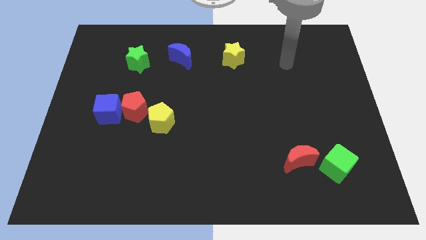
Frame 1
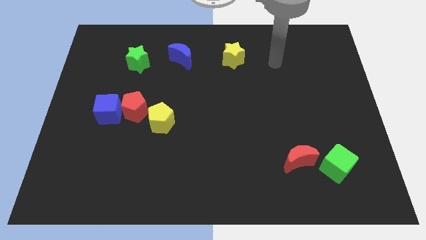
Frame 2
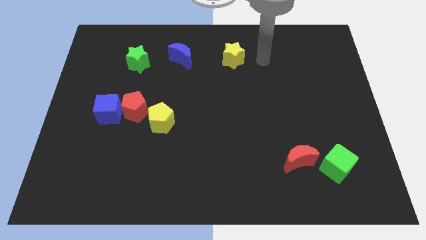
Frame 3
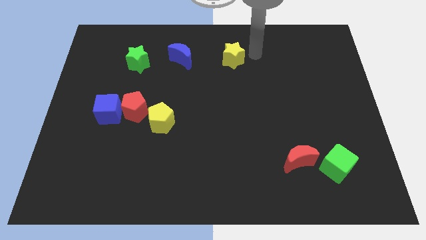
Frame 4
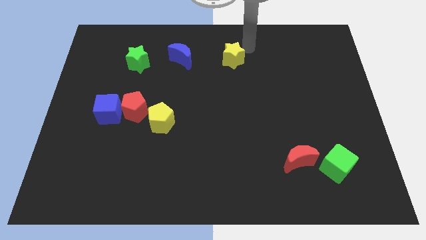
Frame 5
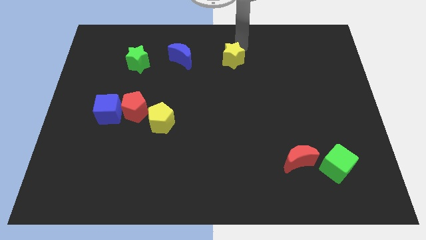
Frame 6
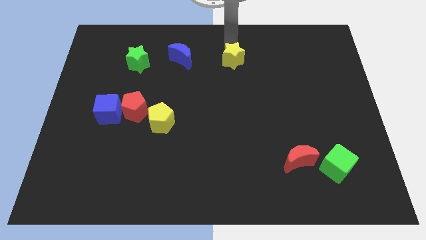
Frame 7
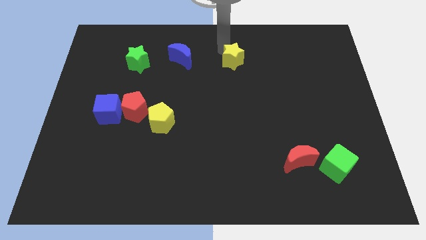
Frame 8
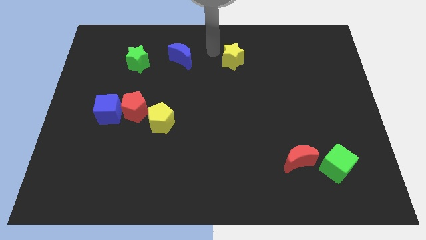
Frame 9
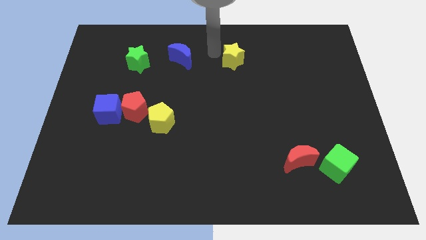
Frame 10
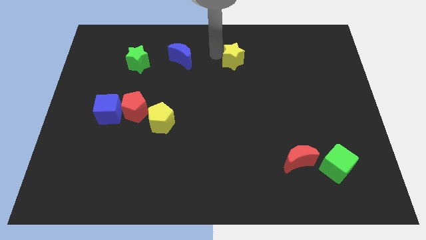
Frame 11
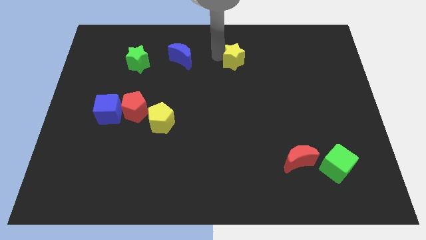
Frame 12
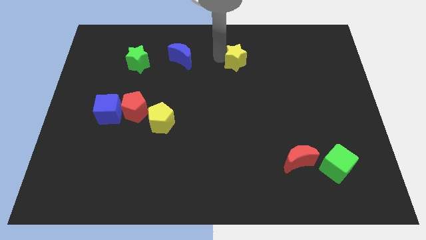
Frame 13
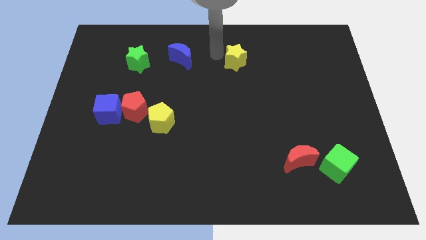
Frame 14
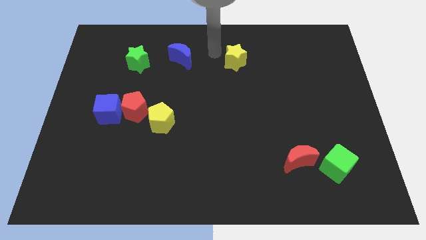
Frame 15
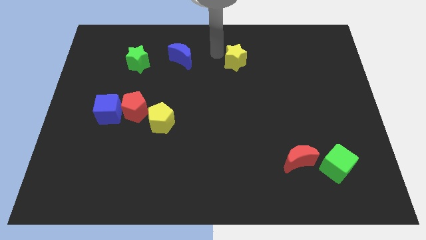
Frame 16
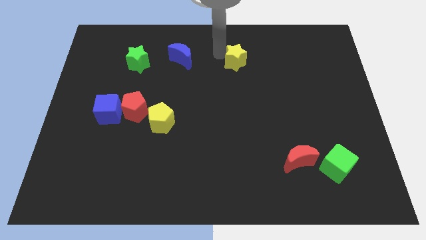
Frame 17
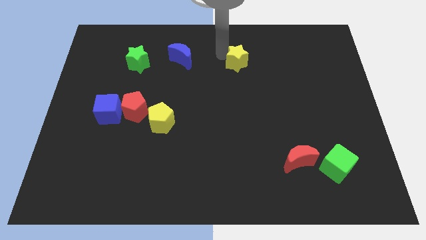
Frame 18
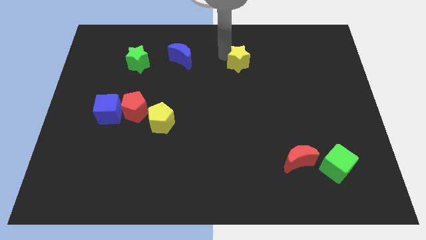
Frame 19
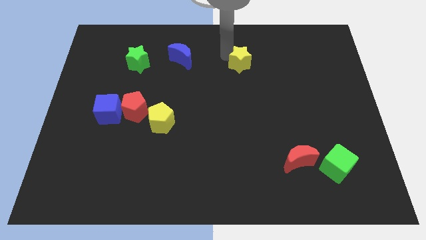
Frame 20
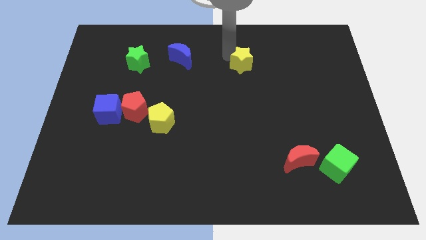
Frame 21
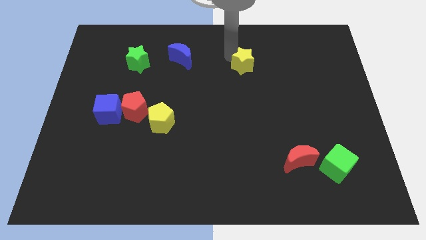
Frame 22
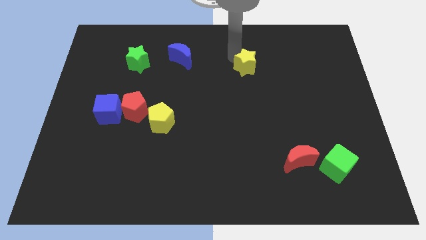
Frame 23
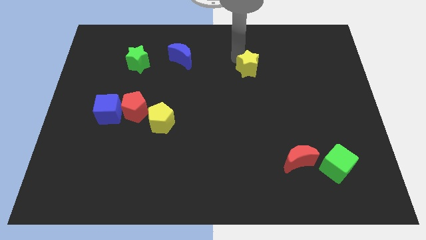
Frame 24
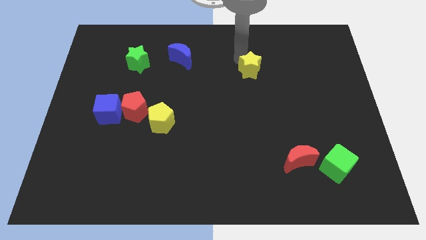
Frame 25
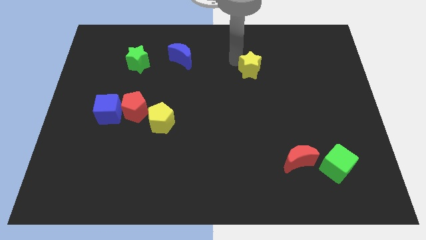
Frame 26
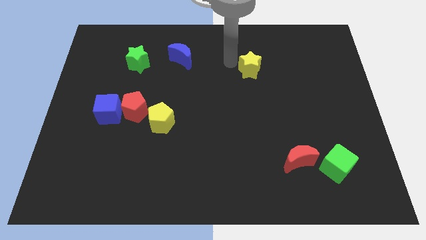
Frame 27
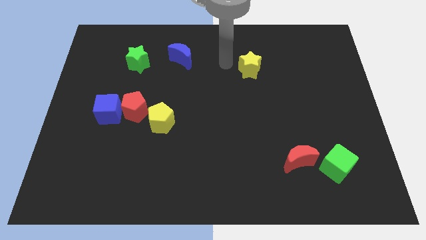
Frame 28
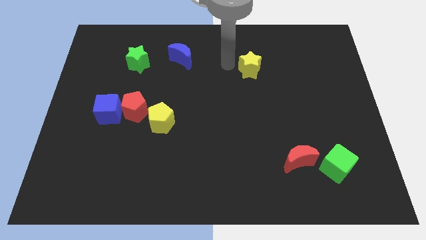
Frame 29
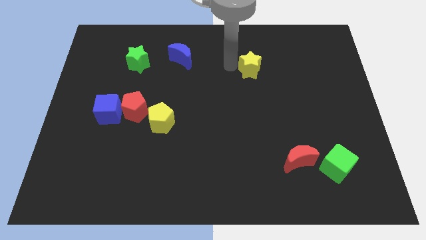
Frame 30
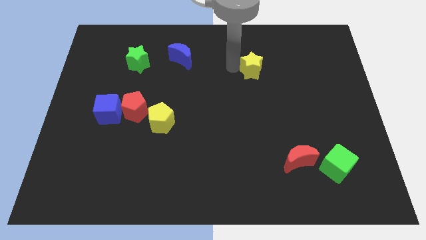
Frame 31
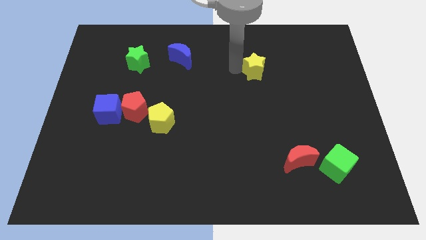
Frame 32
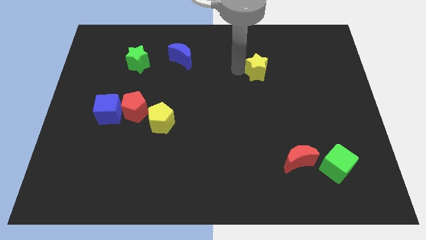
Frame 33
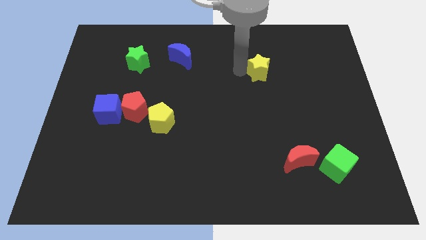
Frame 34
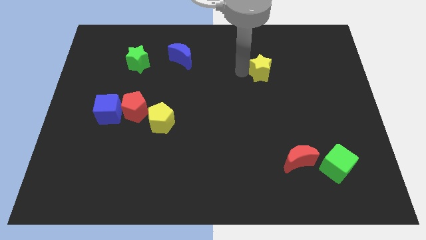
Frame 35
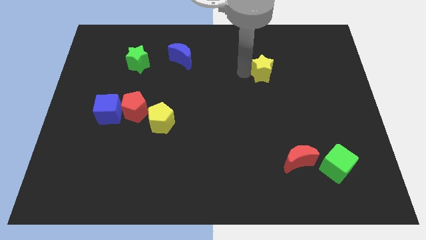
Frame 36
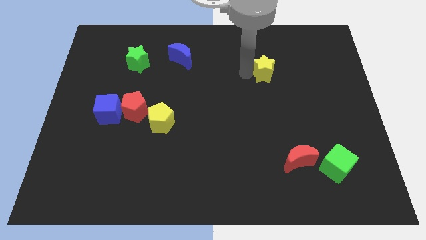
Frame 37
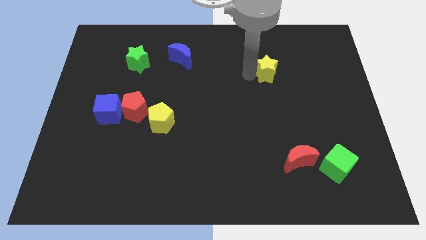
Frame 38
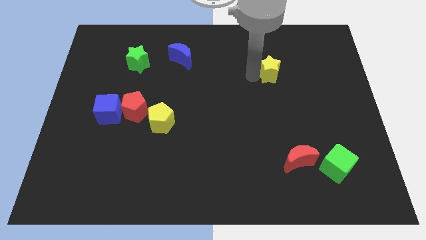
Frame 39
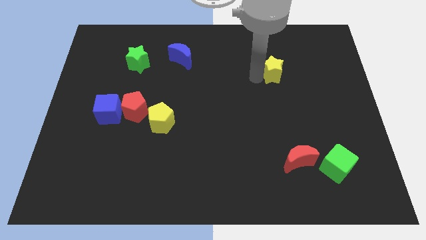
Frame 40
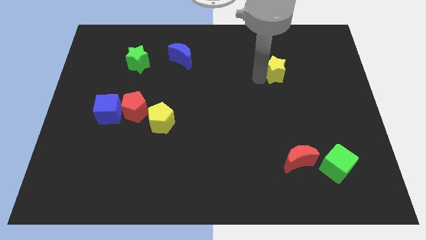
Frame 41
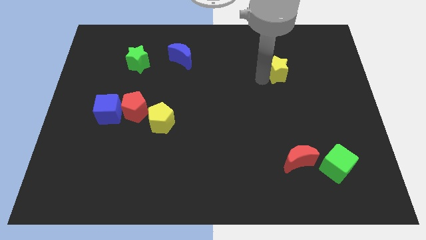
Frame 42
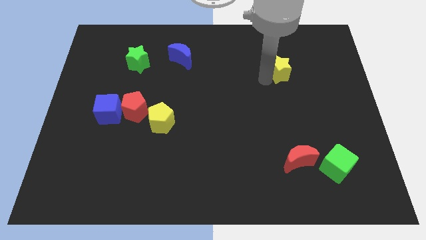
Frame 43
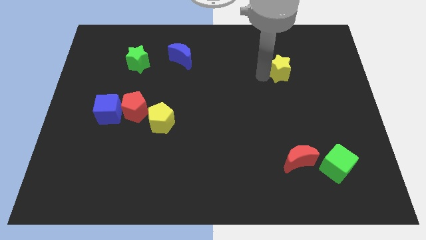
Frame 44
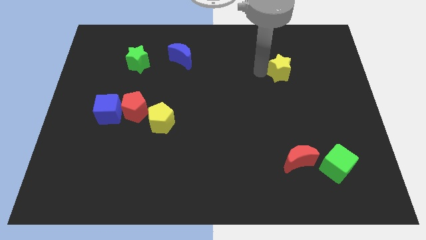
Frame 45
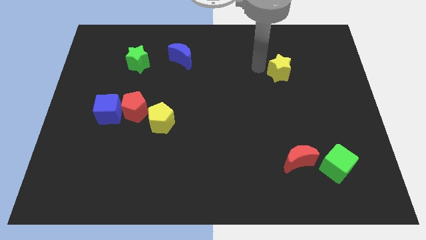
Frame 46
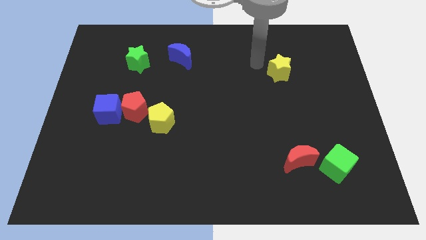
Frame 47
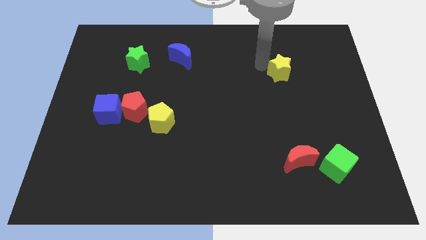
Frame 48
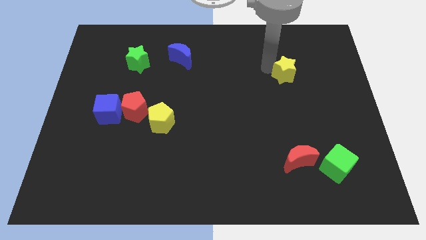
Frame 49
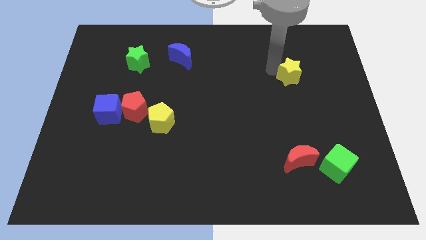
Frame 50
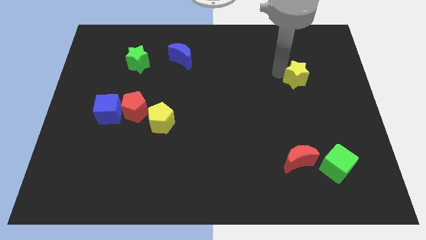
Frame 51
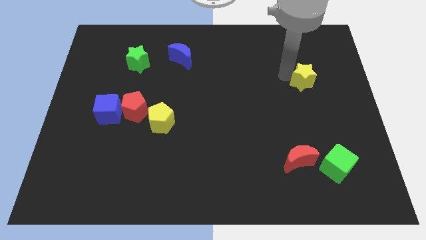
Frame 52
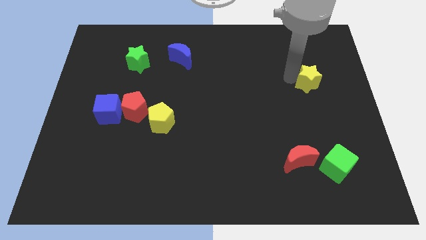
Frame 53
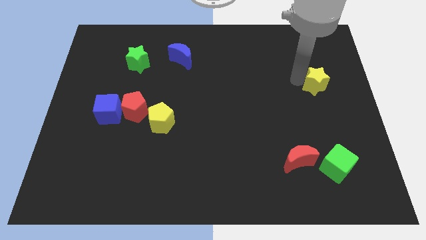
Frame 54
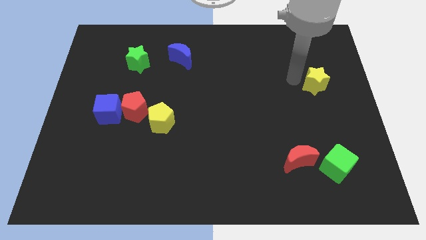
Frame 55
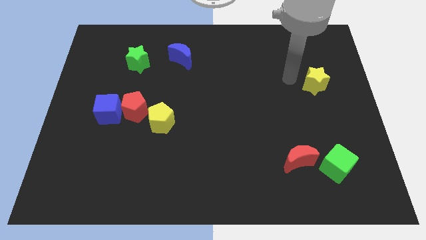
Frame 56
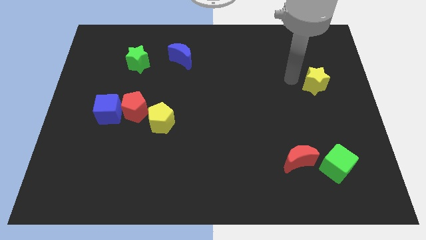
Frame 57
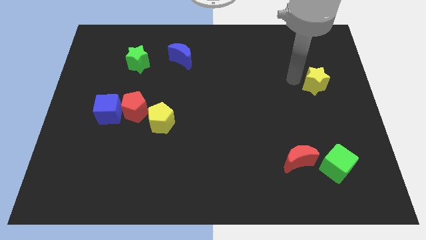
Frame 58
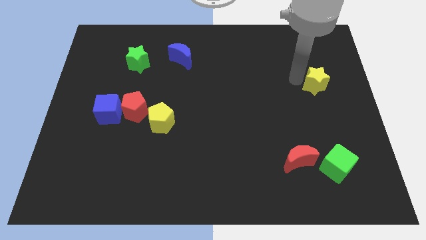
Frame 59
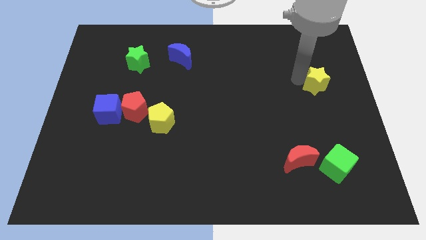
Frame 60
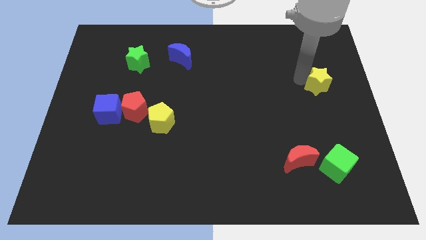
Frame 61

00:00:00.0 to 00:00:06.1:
put the yellow star to the center right

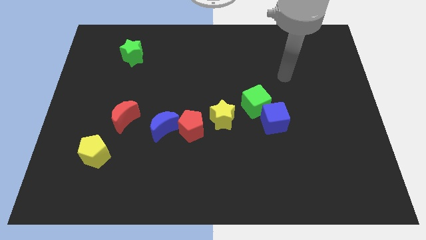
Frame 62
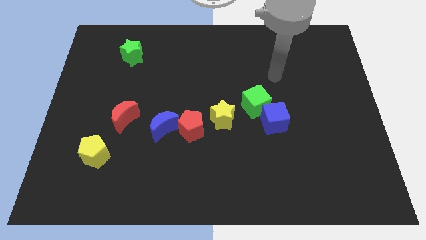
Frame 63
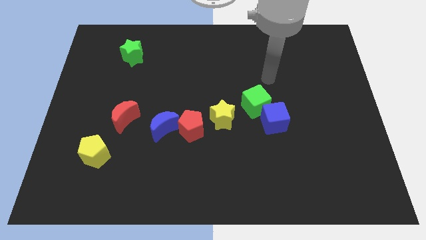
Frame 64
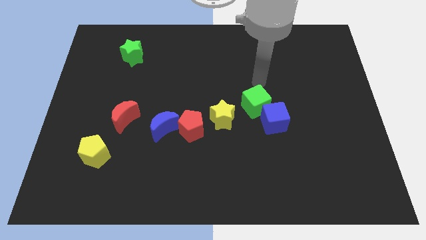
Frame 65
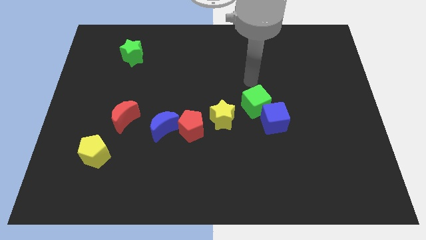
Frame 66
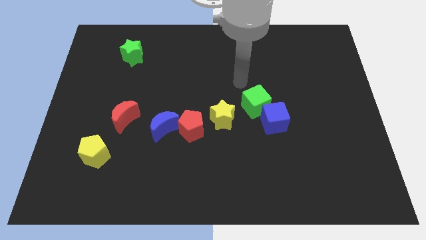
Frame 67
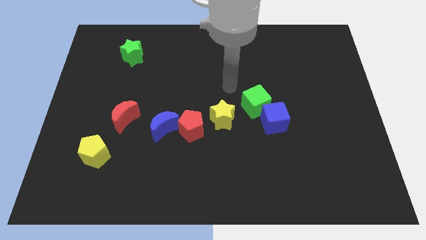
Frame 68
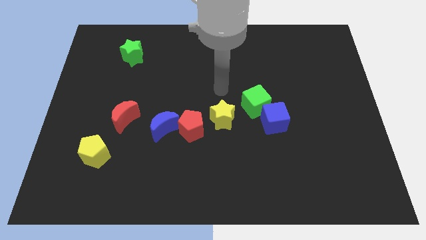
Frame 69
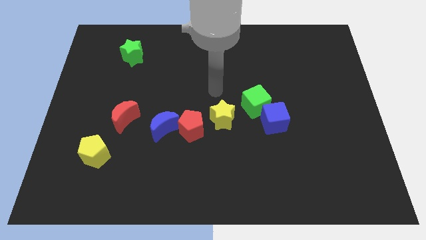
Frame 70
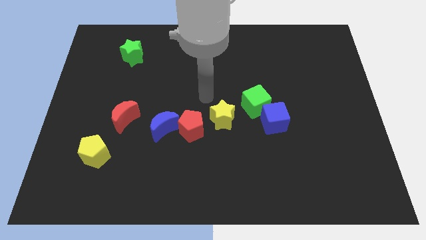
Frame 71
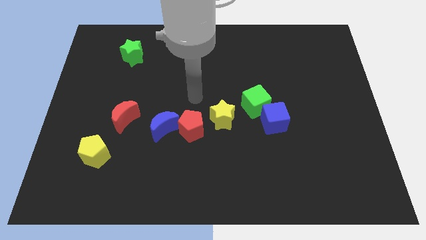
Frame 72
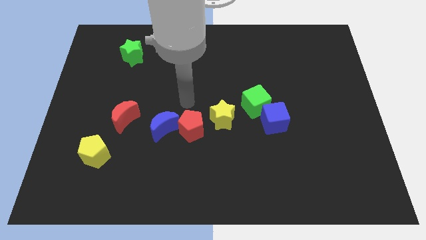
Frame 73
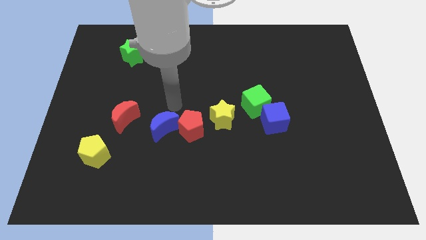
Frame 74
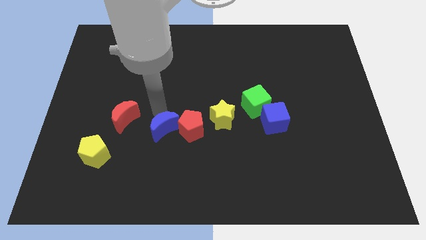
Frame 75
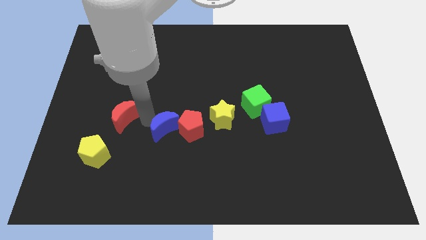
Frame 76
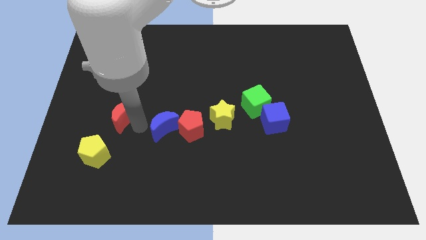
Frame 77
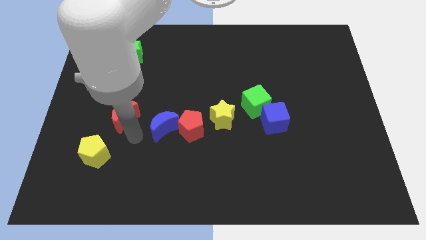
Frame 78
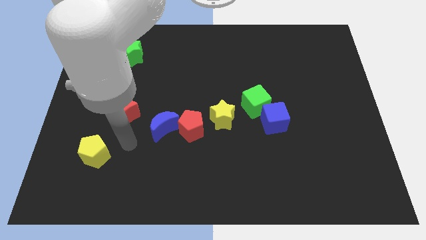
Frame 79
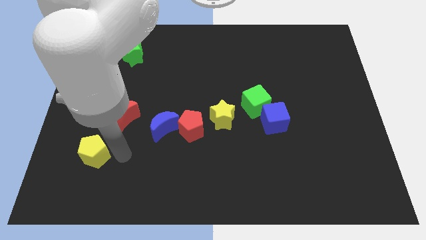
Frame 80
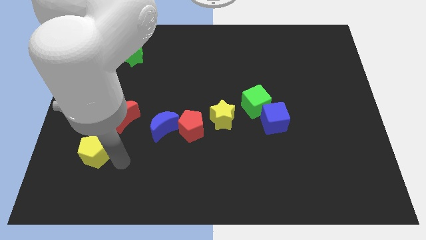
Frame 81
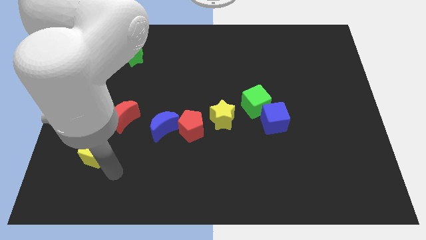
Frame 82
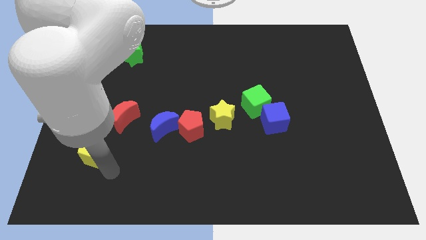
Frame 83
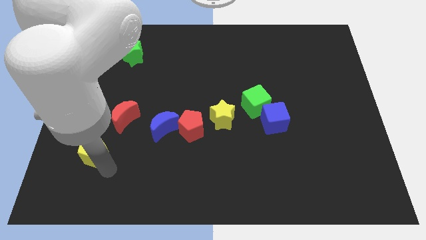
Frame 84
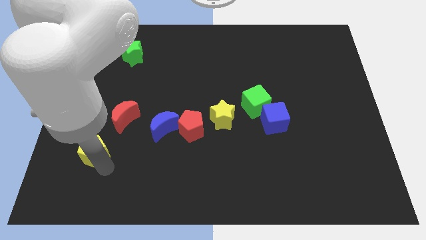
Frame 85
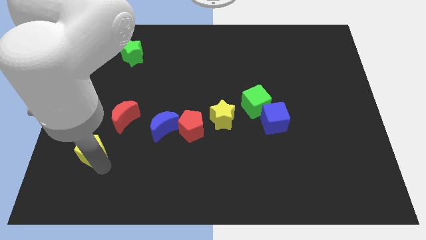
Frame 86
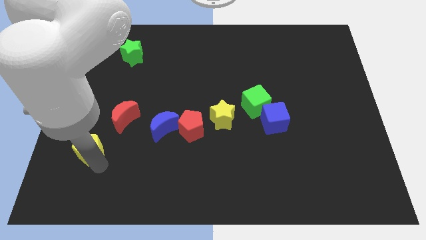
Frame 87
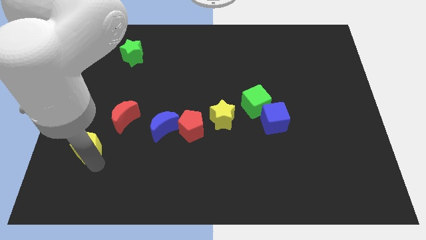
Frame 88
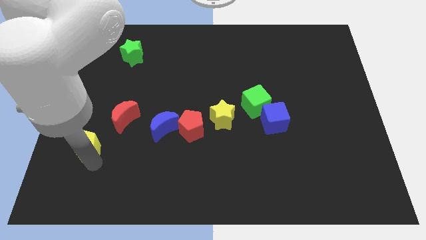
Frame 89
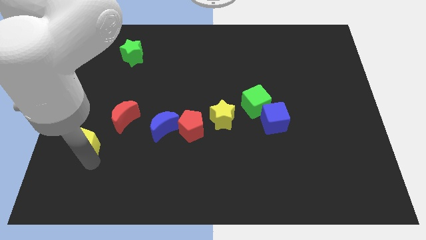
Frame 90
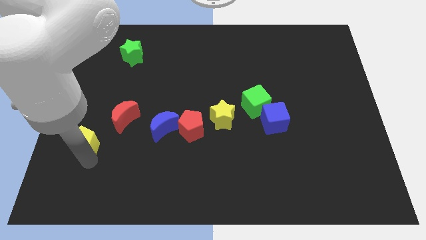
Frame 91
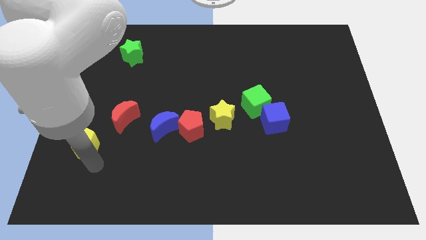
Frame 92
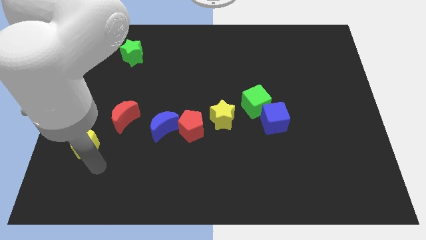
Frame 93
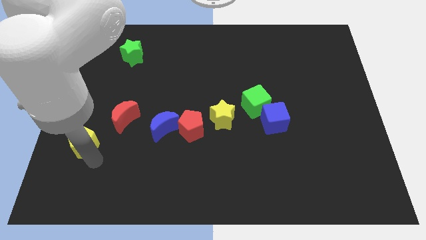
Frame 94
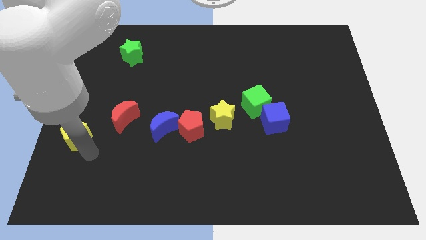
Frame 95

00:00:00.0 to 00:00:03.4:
slide the yellow pentagon to the left side
